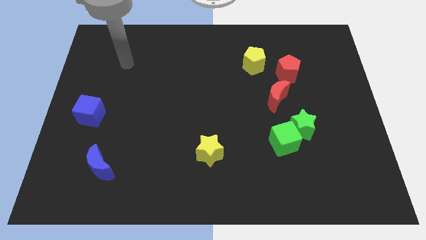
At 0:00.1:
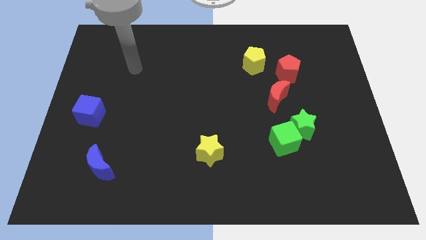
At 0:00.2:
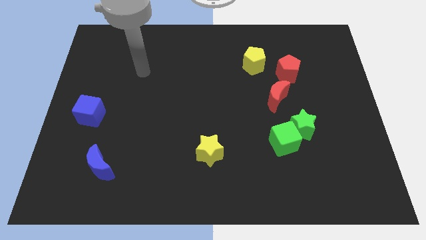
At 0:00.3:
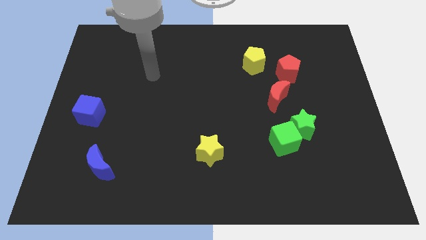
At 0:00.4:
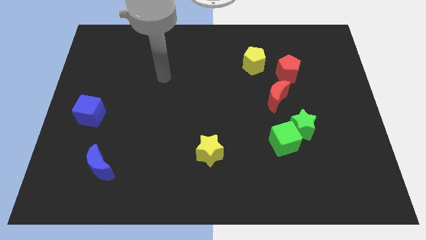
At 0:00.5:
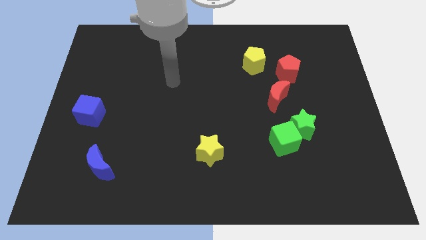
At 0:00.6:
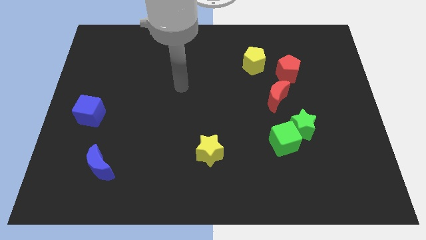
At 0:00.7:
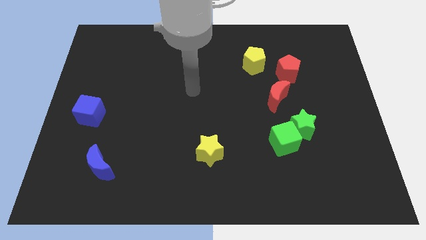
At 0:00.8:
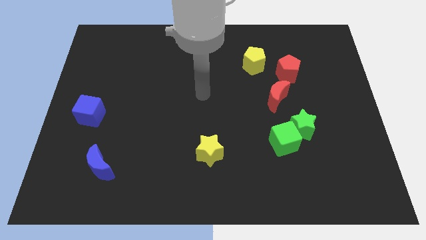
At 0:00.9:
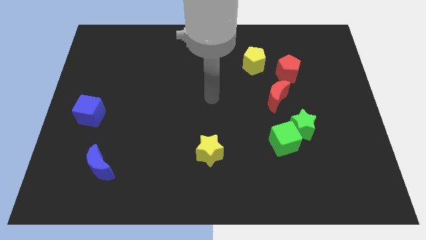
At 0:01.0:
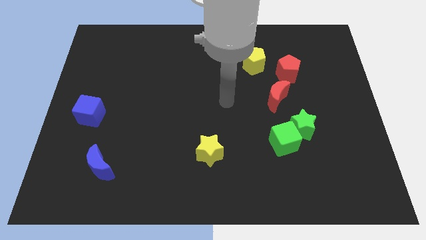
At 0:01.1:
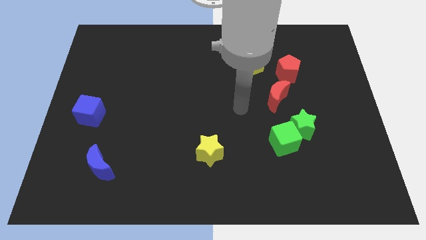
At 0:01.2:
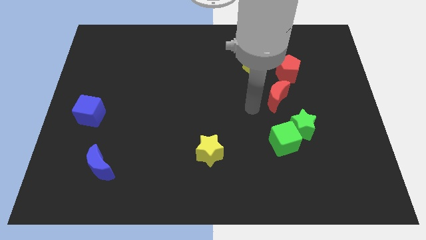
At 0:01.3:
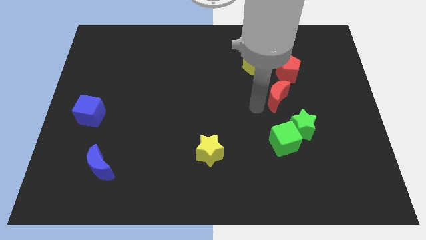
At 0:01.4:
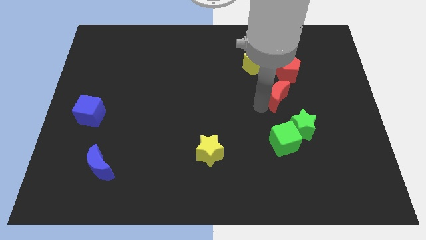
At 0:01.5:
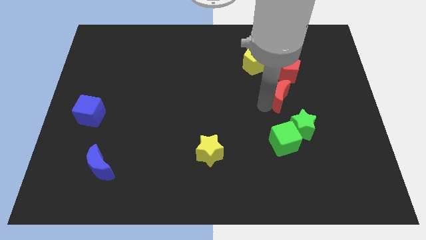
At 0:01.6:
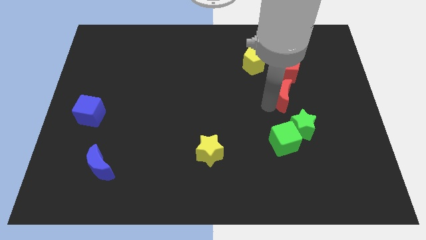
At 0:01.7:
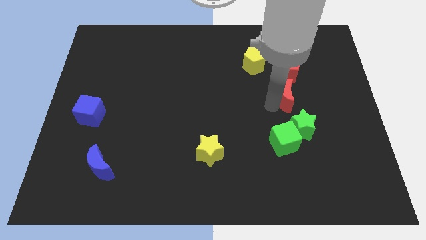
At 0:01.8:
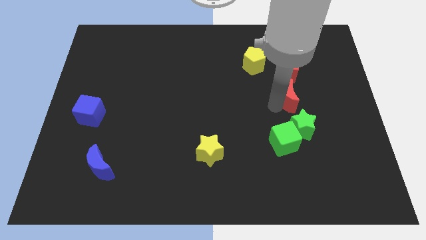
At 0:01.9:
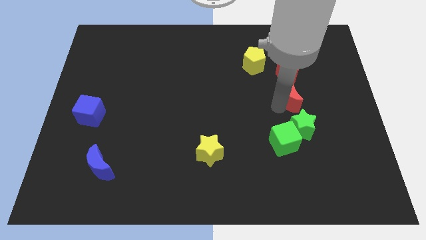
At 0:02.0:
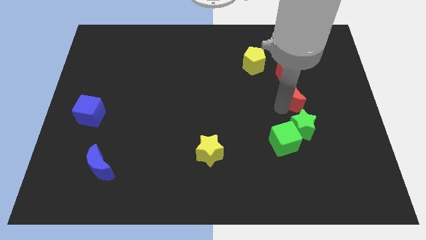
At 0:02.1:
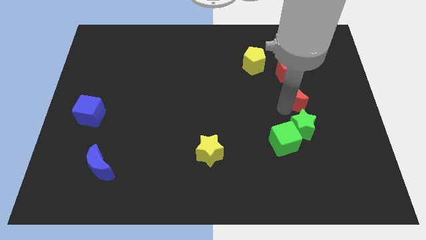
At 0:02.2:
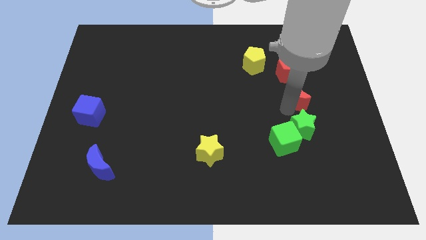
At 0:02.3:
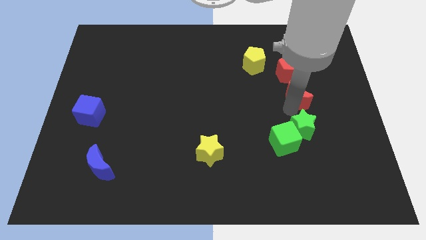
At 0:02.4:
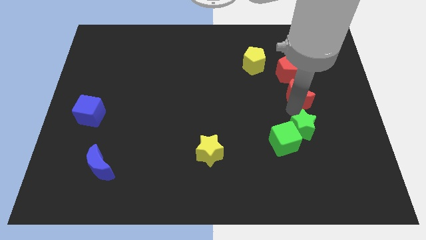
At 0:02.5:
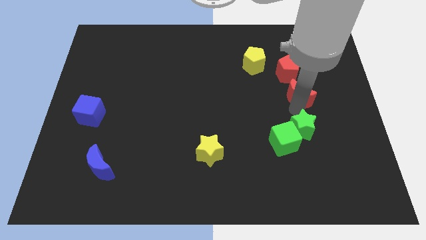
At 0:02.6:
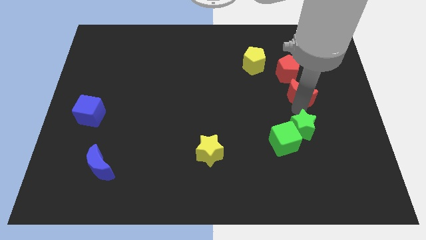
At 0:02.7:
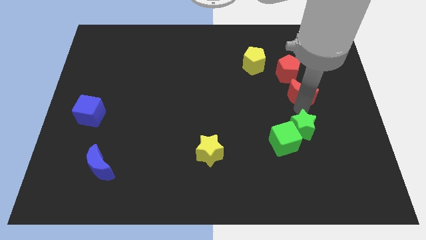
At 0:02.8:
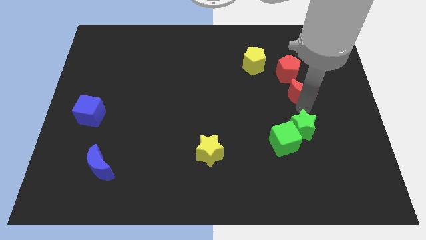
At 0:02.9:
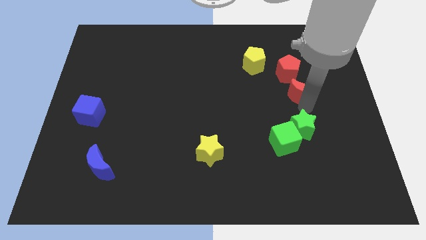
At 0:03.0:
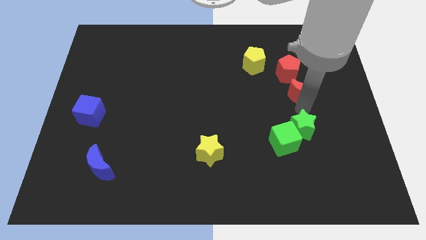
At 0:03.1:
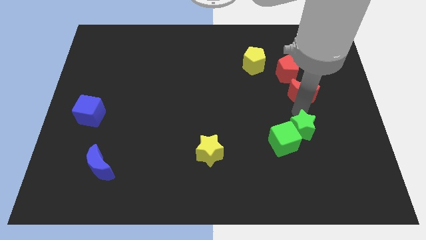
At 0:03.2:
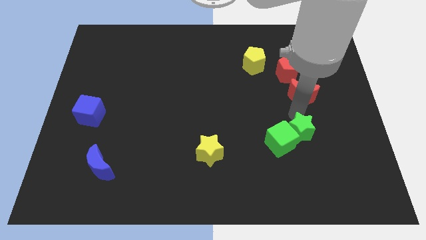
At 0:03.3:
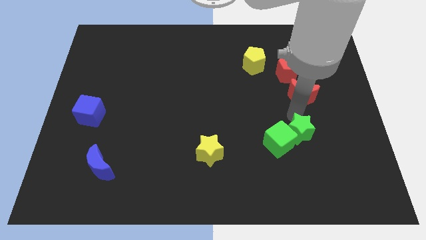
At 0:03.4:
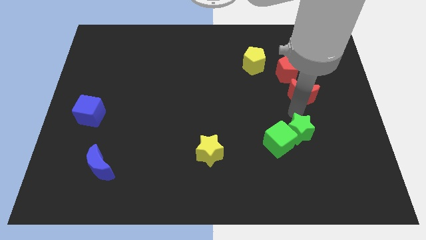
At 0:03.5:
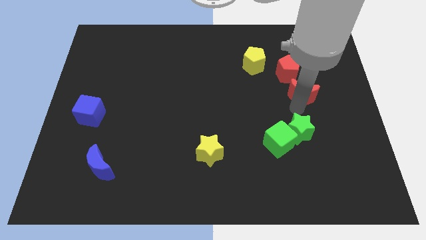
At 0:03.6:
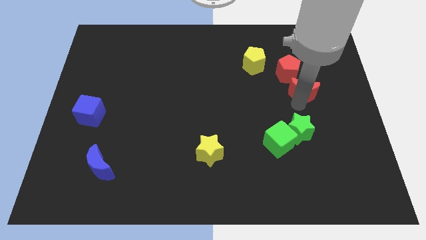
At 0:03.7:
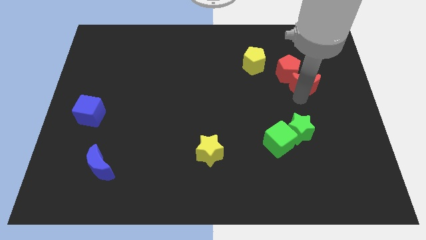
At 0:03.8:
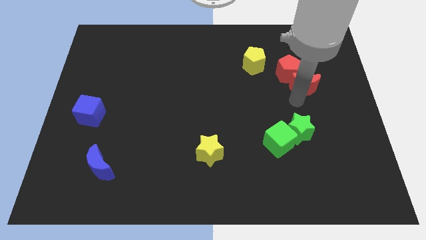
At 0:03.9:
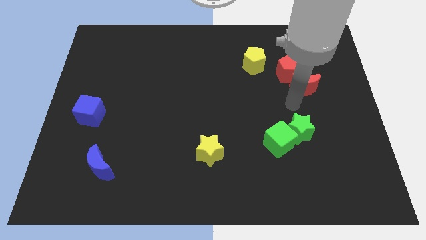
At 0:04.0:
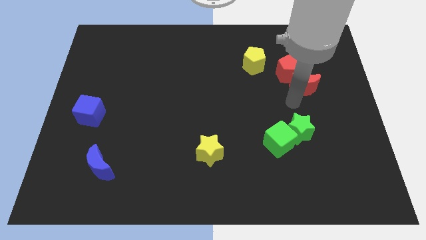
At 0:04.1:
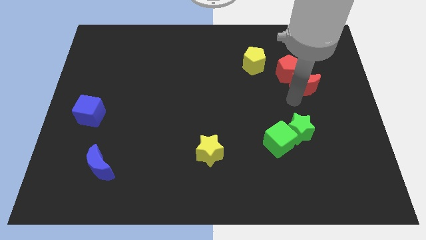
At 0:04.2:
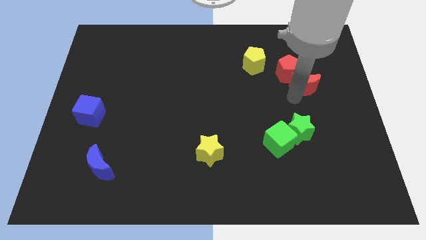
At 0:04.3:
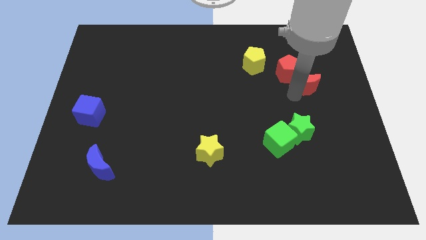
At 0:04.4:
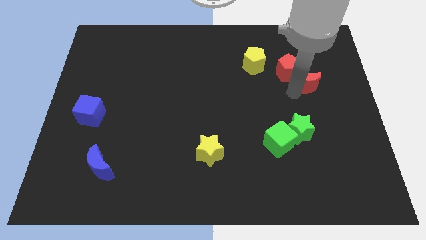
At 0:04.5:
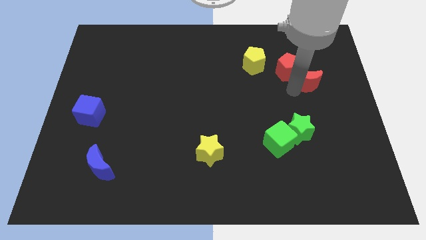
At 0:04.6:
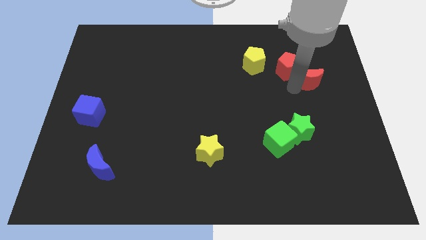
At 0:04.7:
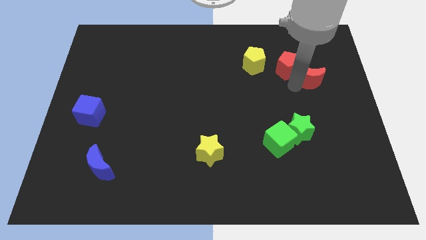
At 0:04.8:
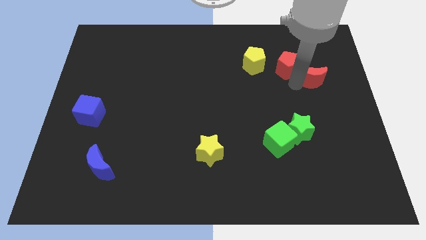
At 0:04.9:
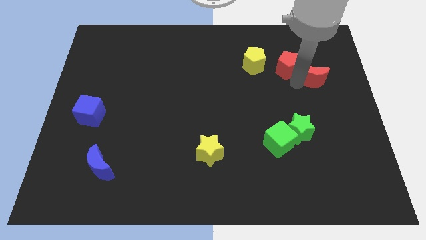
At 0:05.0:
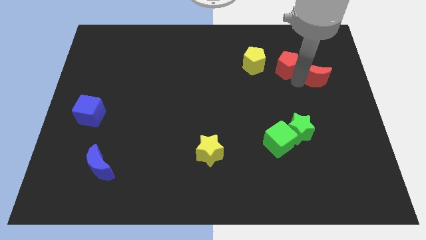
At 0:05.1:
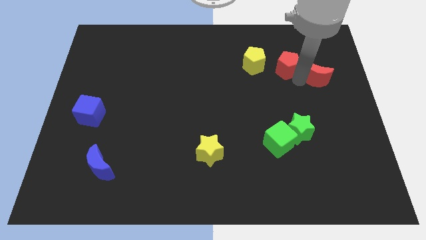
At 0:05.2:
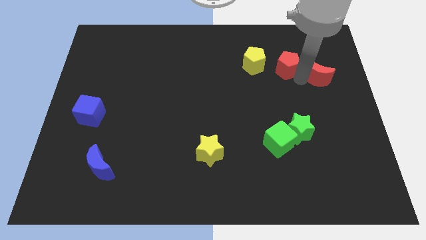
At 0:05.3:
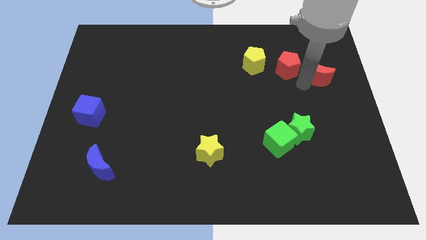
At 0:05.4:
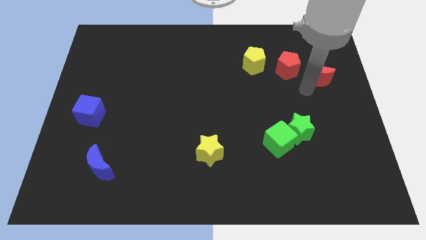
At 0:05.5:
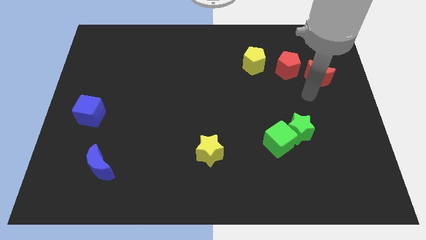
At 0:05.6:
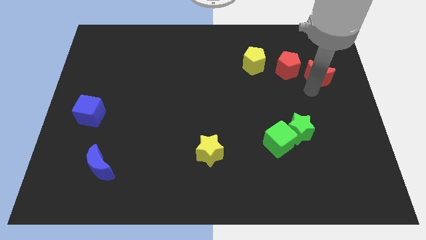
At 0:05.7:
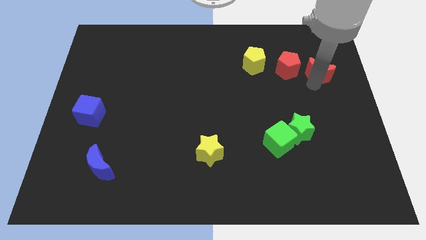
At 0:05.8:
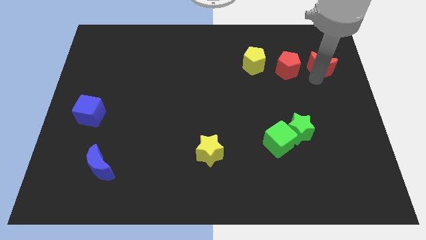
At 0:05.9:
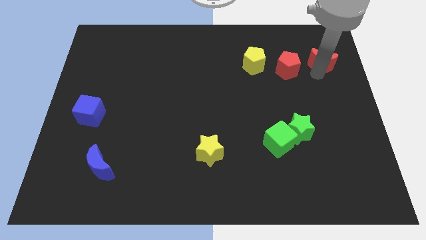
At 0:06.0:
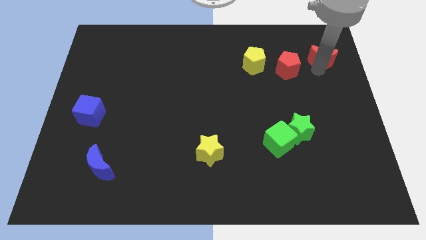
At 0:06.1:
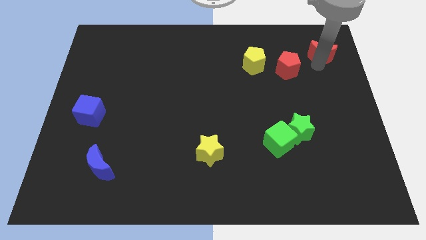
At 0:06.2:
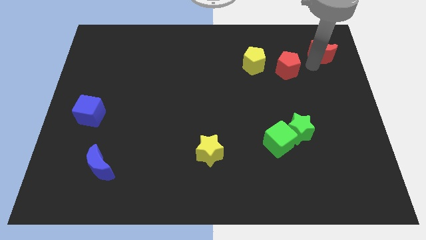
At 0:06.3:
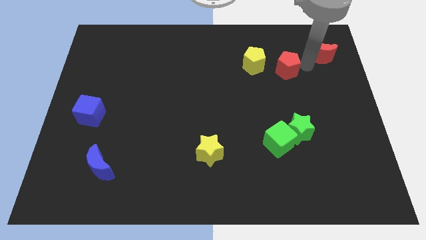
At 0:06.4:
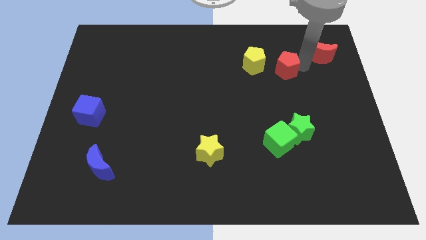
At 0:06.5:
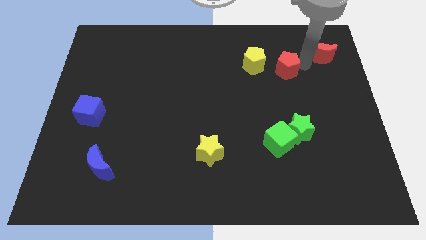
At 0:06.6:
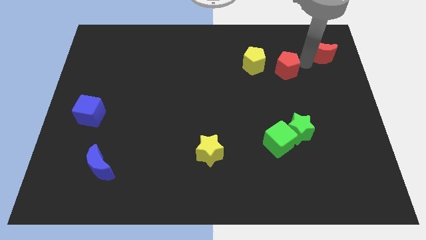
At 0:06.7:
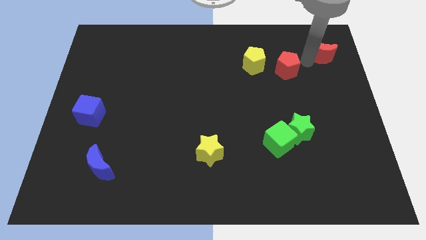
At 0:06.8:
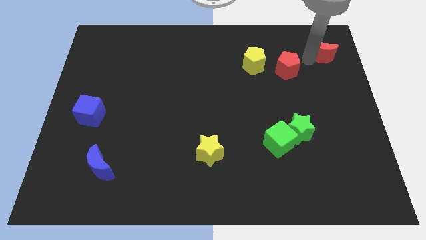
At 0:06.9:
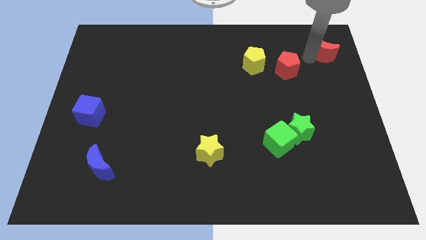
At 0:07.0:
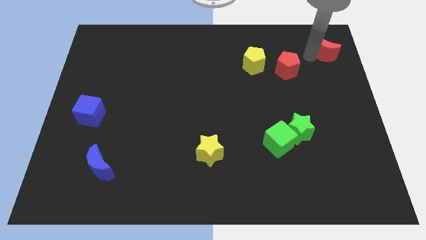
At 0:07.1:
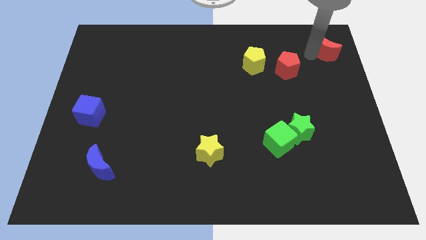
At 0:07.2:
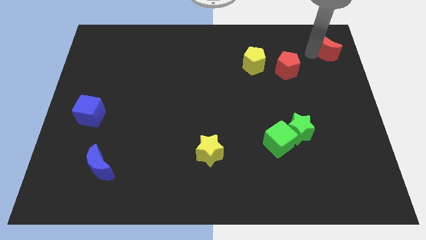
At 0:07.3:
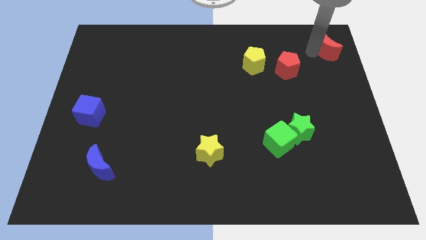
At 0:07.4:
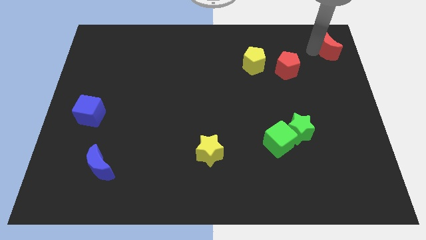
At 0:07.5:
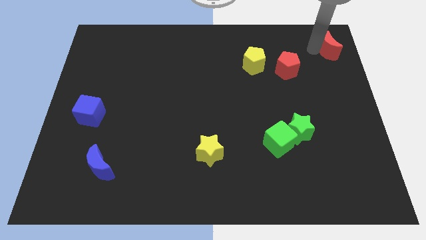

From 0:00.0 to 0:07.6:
push the red moon to the top right of the board
